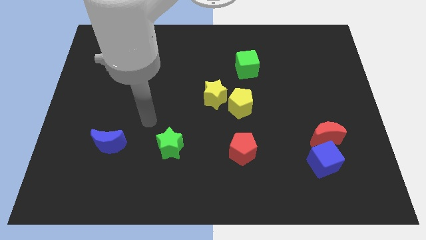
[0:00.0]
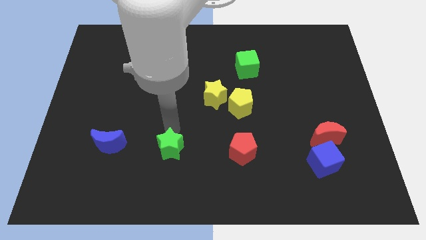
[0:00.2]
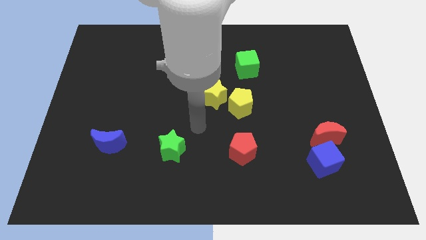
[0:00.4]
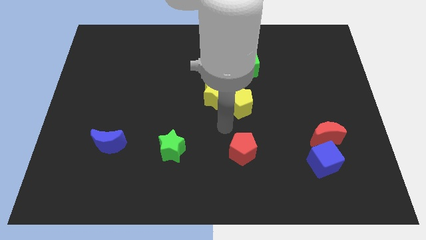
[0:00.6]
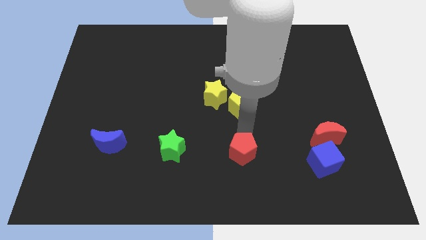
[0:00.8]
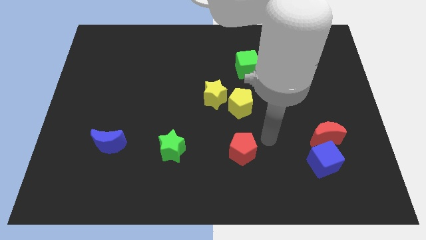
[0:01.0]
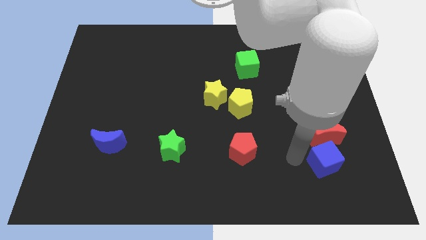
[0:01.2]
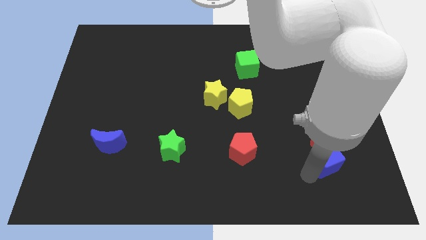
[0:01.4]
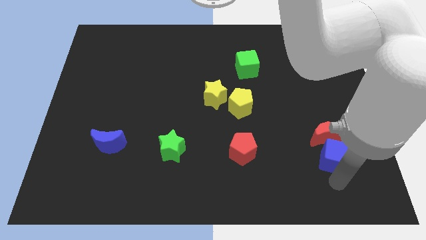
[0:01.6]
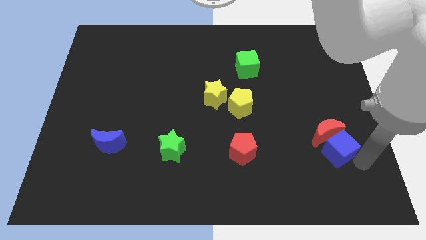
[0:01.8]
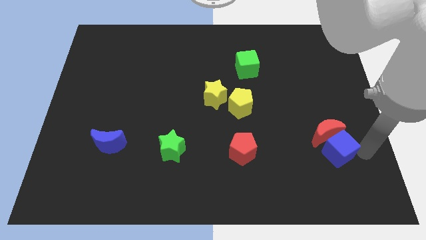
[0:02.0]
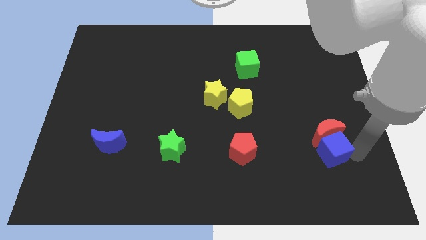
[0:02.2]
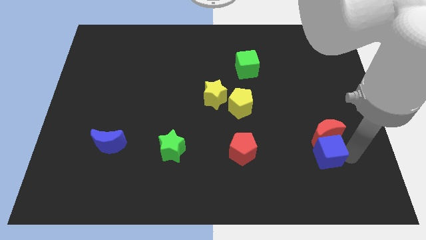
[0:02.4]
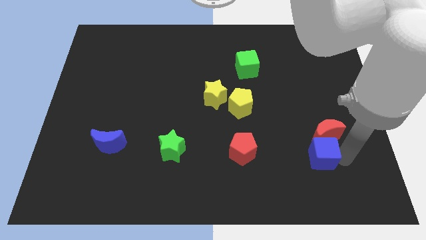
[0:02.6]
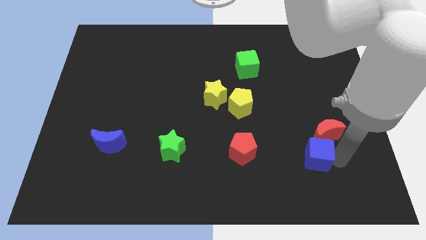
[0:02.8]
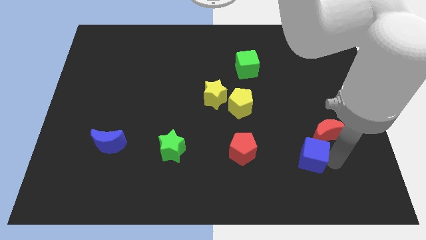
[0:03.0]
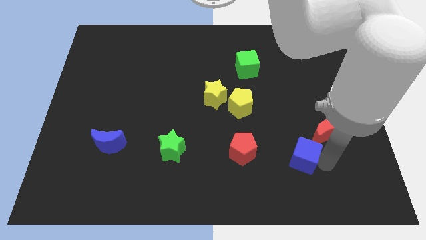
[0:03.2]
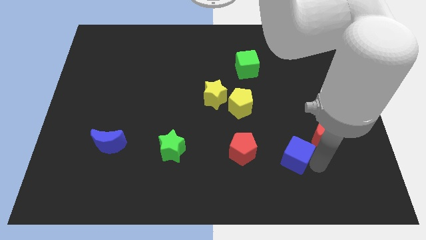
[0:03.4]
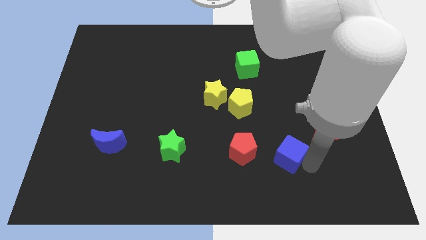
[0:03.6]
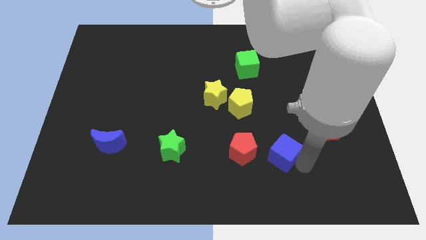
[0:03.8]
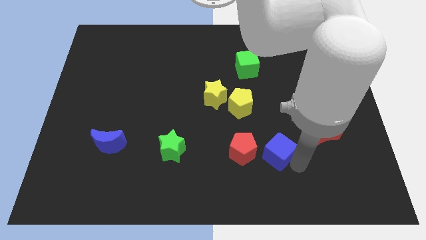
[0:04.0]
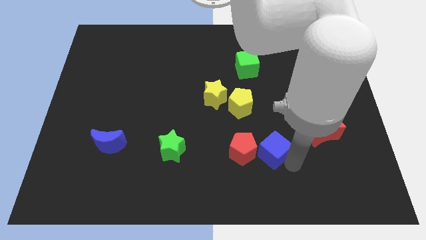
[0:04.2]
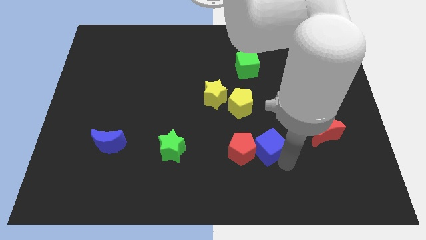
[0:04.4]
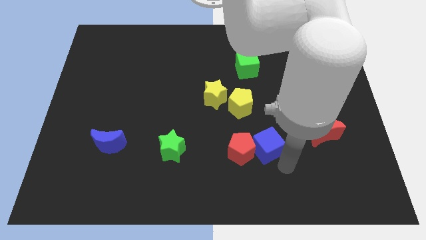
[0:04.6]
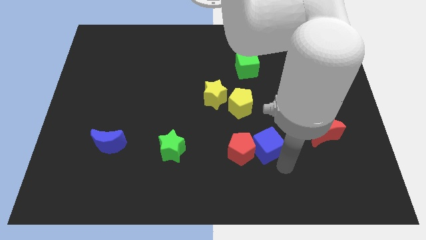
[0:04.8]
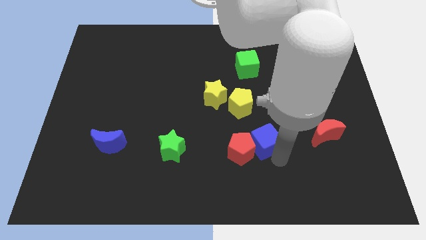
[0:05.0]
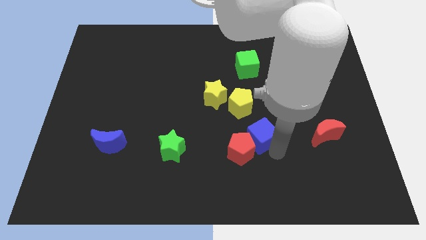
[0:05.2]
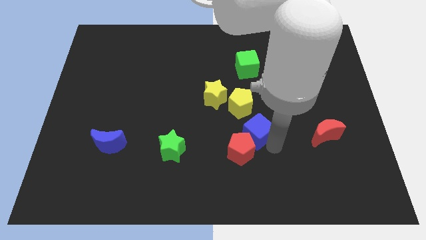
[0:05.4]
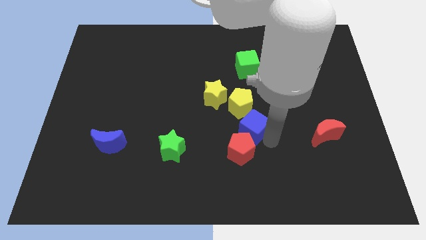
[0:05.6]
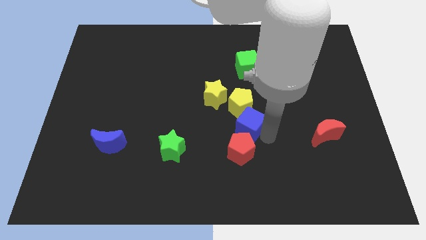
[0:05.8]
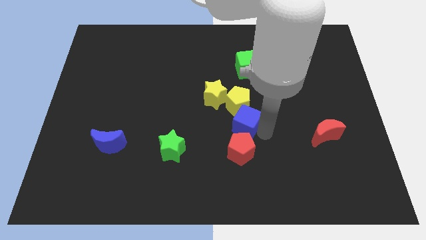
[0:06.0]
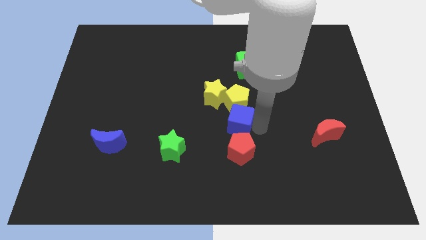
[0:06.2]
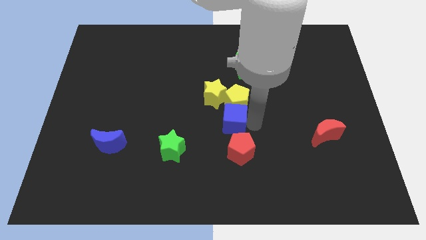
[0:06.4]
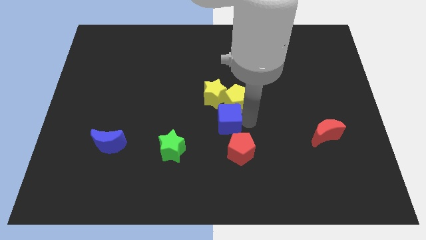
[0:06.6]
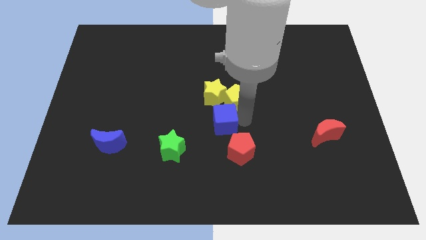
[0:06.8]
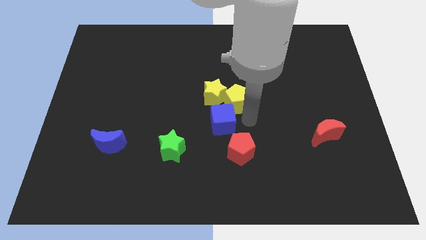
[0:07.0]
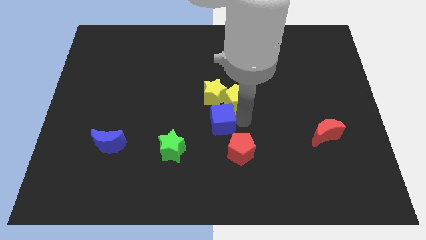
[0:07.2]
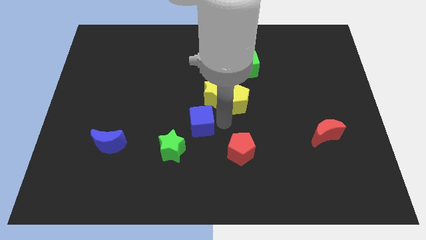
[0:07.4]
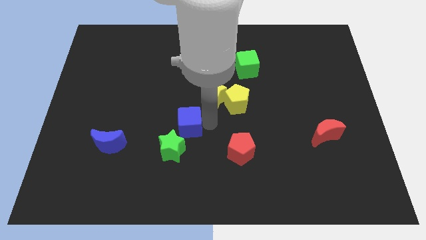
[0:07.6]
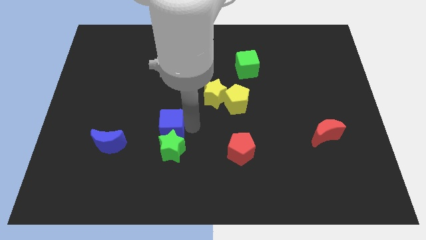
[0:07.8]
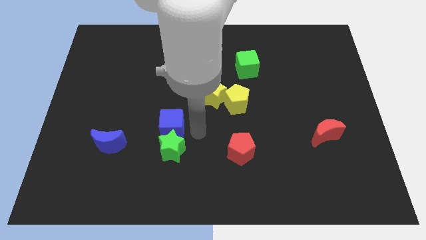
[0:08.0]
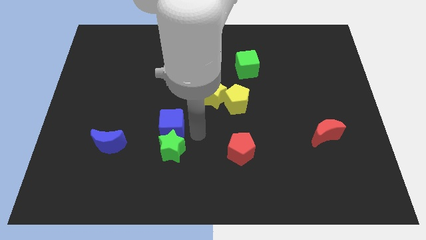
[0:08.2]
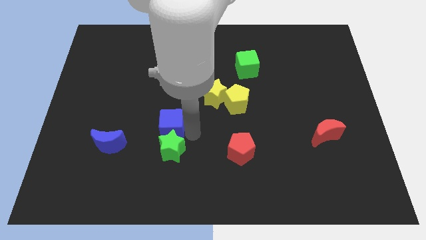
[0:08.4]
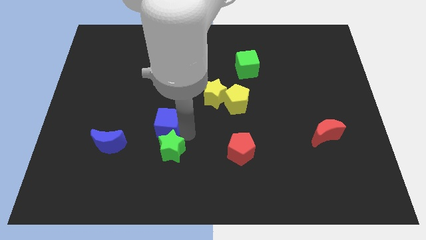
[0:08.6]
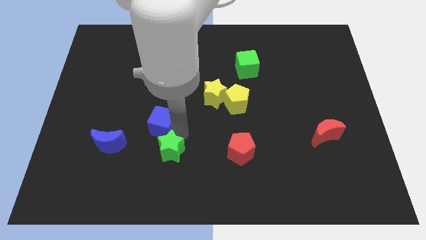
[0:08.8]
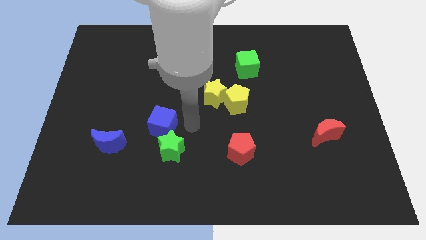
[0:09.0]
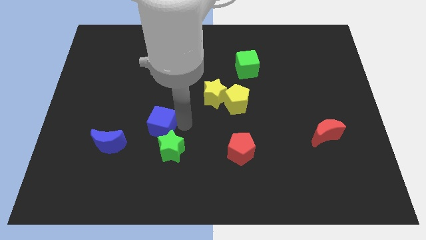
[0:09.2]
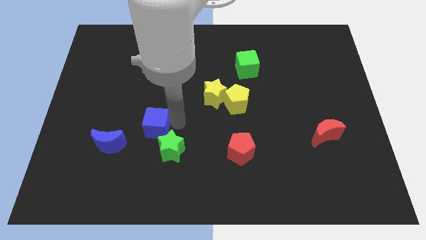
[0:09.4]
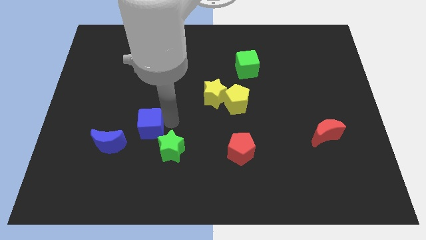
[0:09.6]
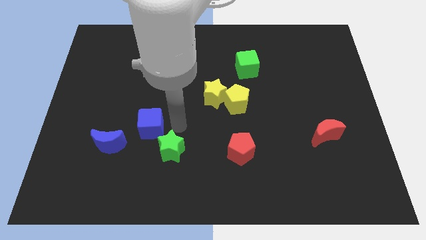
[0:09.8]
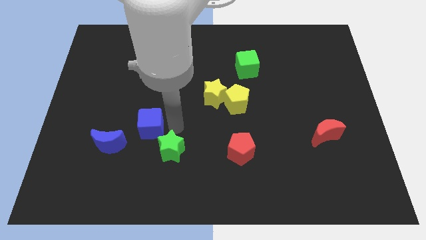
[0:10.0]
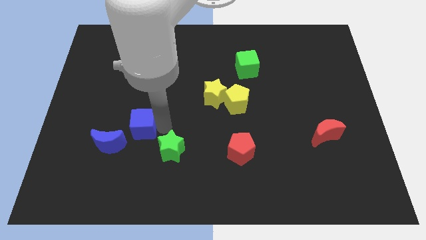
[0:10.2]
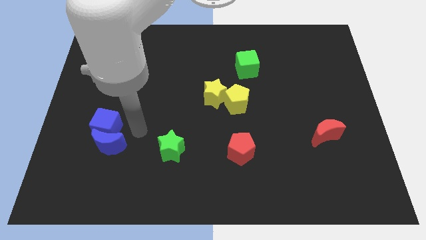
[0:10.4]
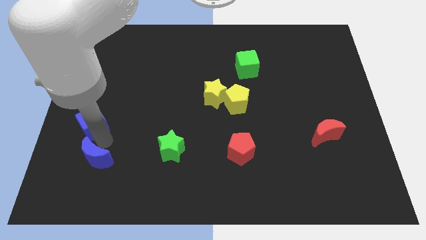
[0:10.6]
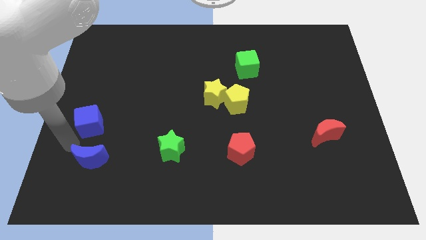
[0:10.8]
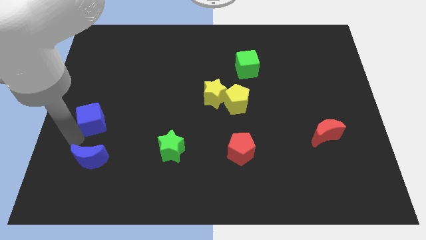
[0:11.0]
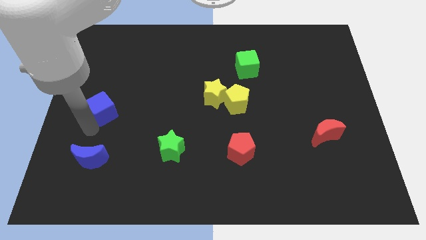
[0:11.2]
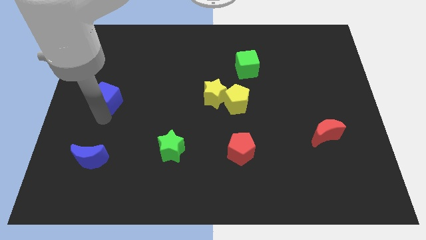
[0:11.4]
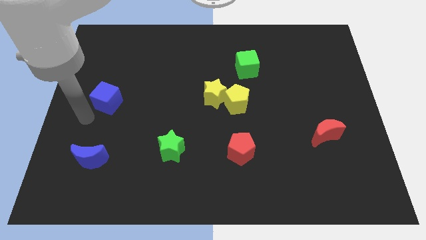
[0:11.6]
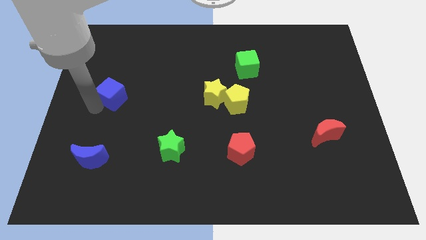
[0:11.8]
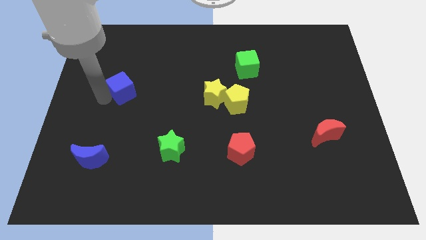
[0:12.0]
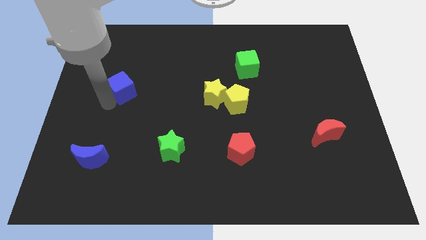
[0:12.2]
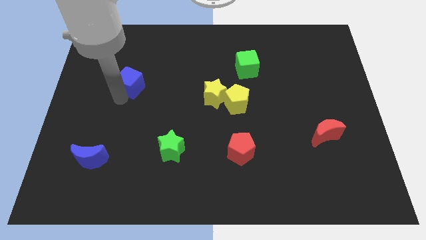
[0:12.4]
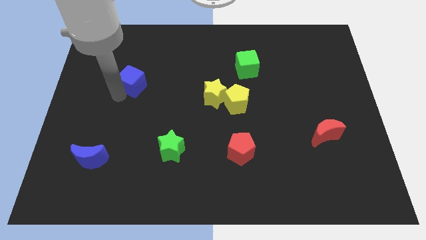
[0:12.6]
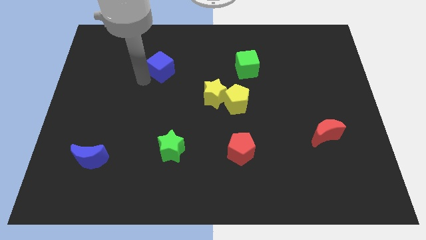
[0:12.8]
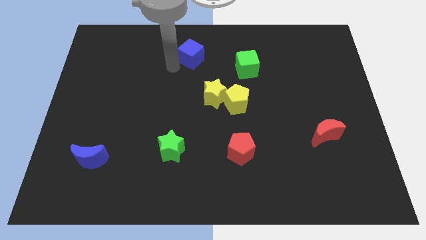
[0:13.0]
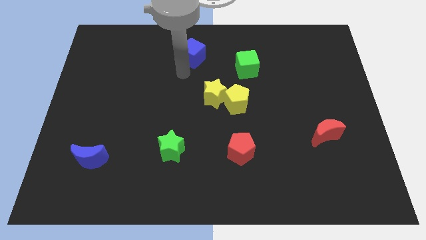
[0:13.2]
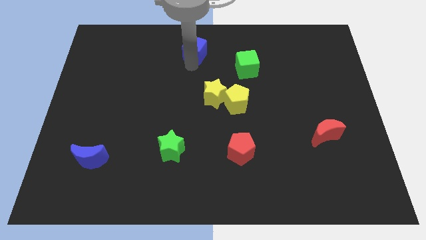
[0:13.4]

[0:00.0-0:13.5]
put the blue cube to the top side

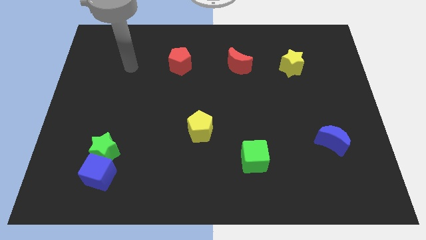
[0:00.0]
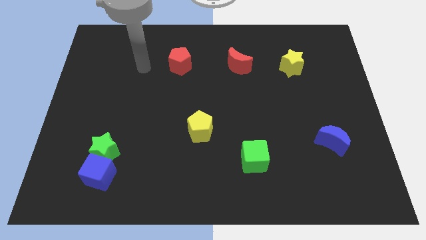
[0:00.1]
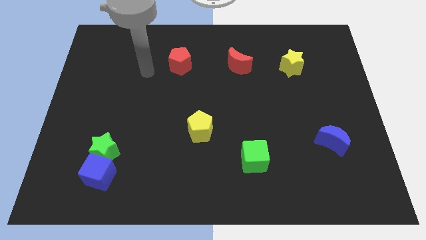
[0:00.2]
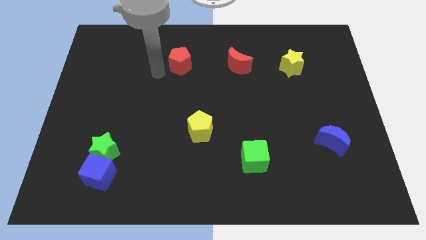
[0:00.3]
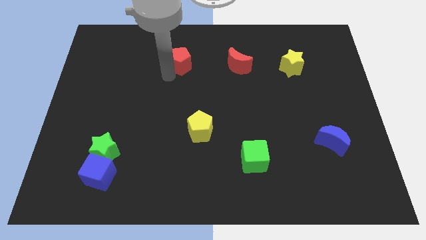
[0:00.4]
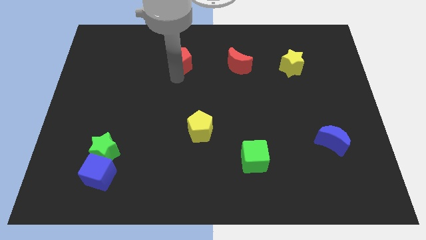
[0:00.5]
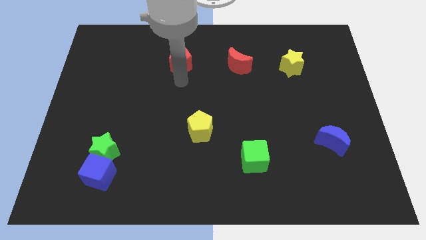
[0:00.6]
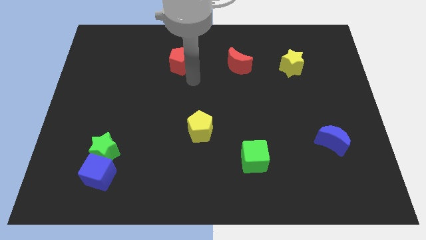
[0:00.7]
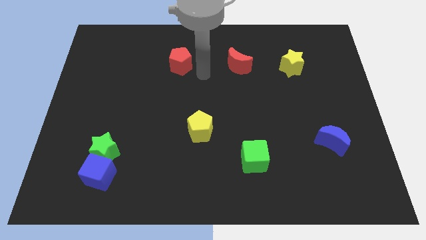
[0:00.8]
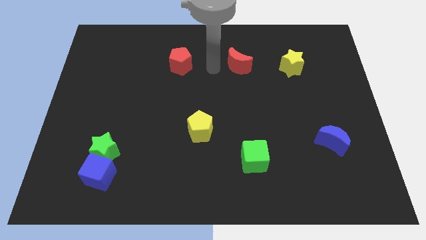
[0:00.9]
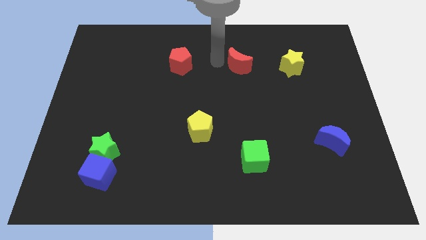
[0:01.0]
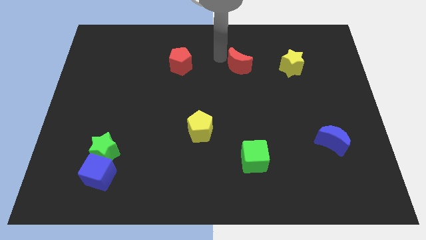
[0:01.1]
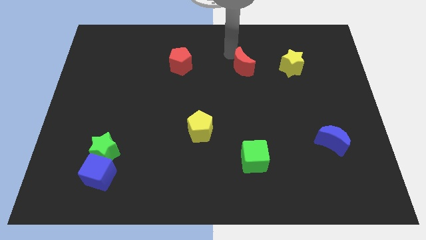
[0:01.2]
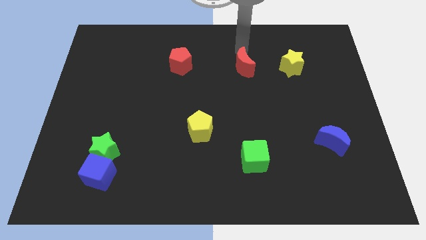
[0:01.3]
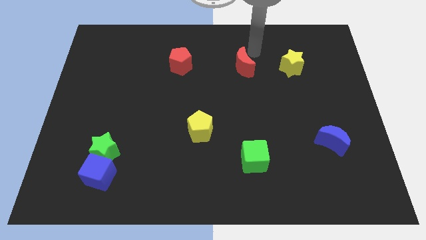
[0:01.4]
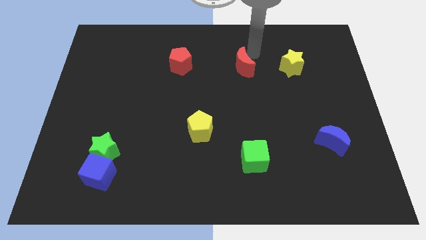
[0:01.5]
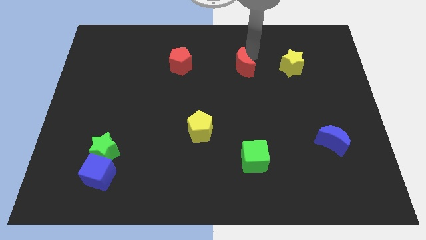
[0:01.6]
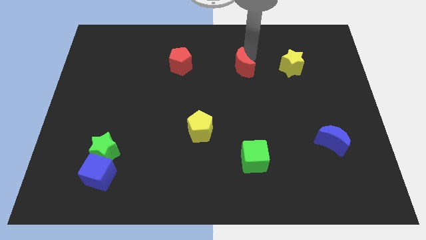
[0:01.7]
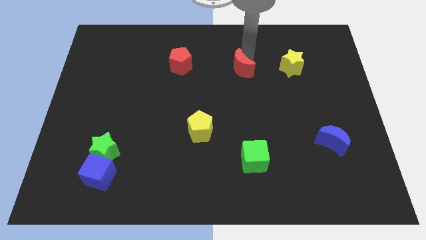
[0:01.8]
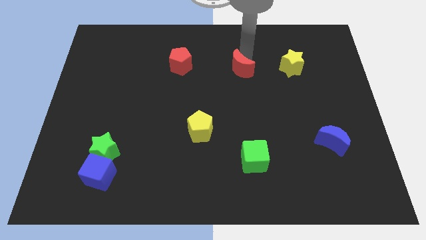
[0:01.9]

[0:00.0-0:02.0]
push the red moon to the middle of the board
